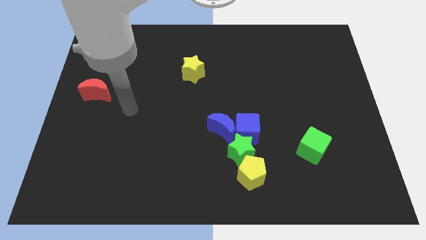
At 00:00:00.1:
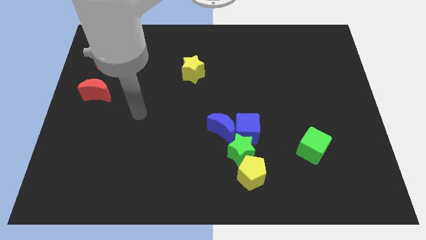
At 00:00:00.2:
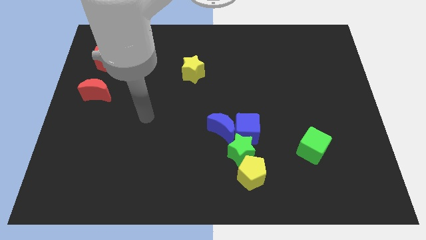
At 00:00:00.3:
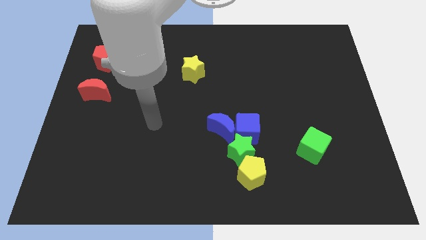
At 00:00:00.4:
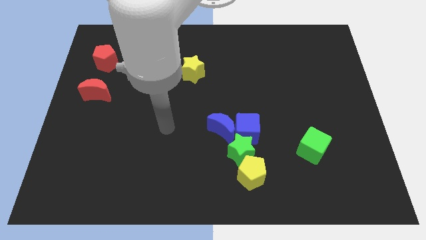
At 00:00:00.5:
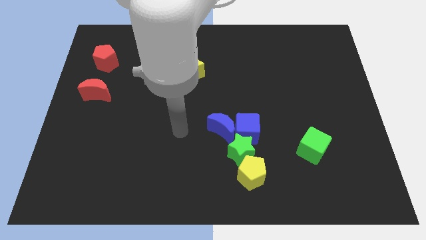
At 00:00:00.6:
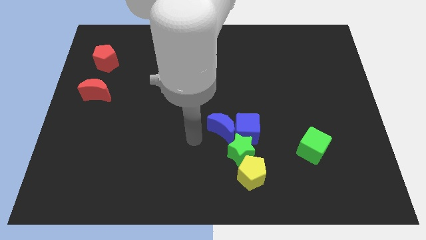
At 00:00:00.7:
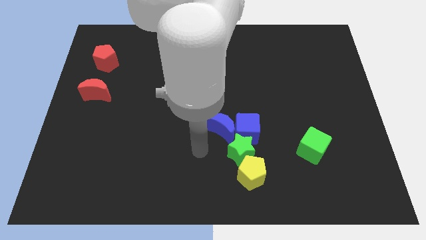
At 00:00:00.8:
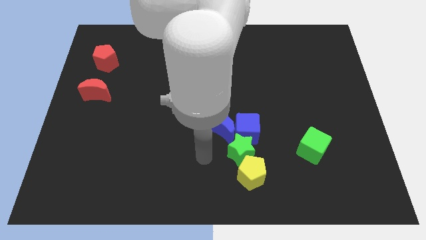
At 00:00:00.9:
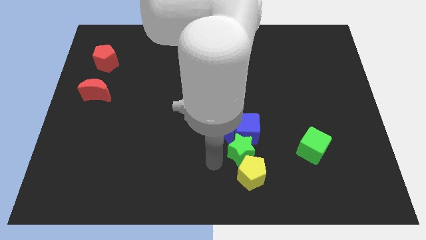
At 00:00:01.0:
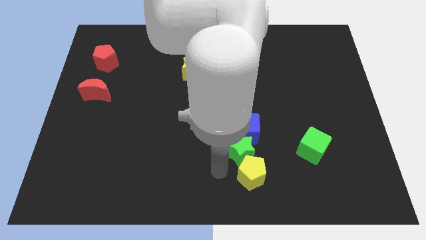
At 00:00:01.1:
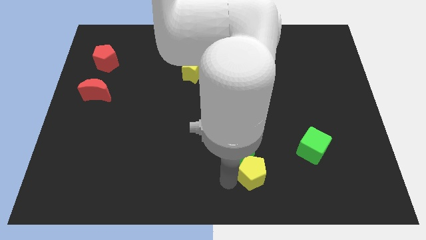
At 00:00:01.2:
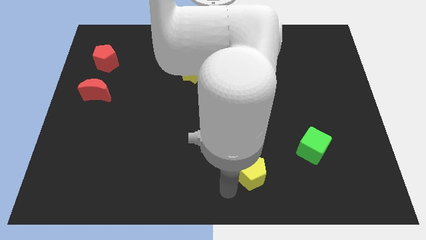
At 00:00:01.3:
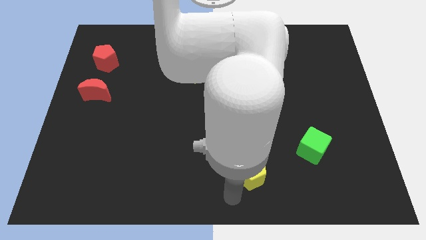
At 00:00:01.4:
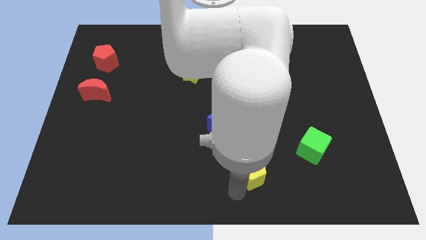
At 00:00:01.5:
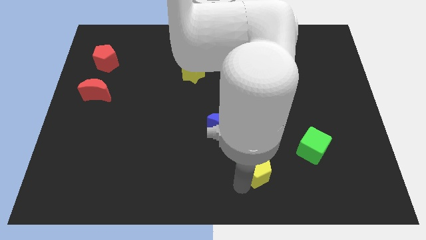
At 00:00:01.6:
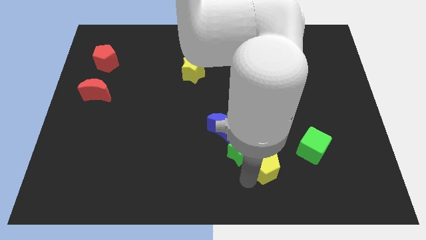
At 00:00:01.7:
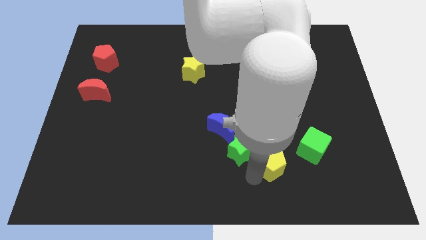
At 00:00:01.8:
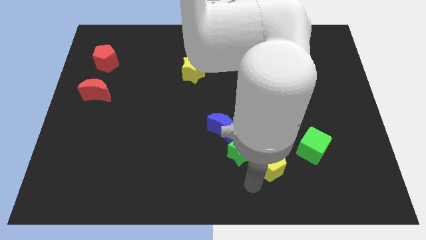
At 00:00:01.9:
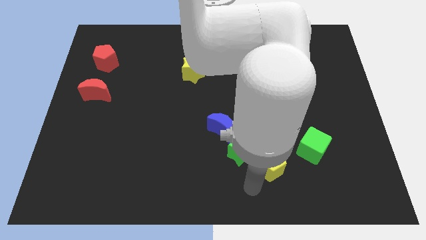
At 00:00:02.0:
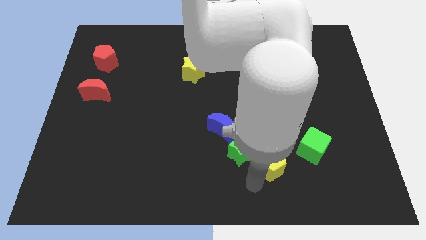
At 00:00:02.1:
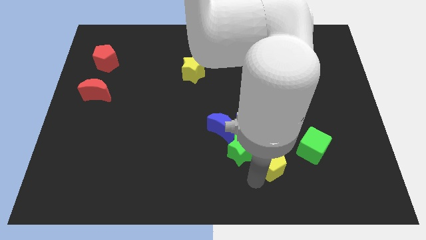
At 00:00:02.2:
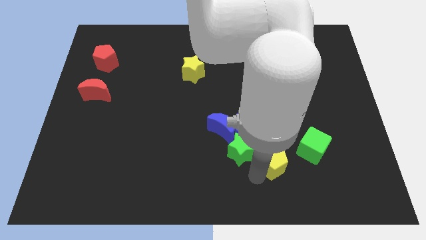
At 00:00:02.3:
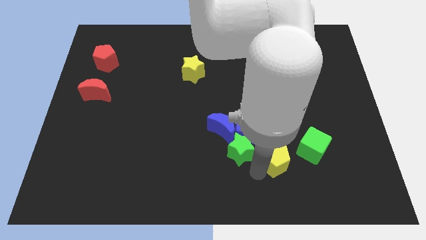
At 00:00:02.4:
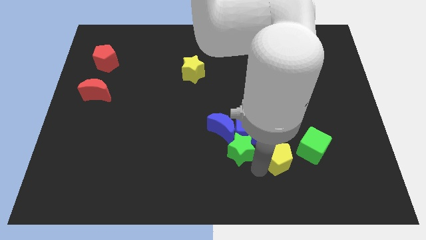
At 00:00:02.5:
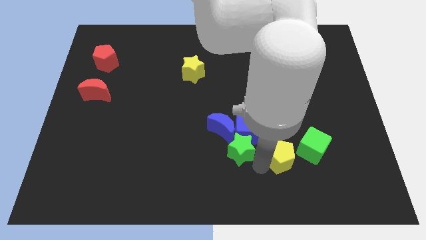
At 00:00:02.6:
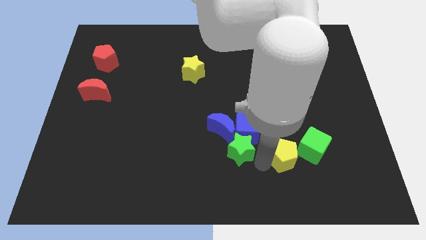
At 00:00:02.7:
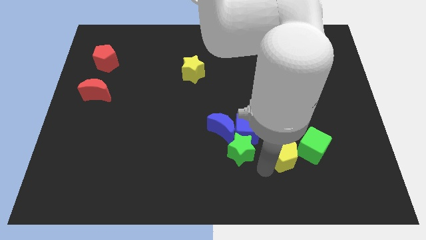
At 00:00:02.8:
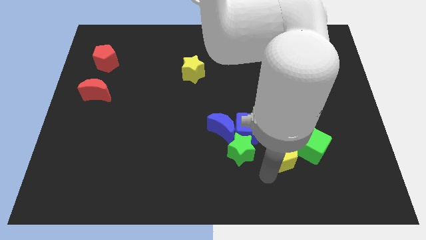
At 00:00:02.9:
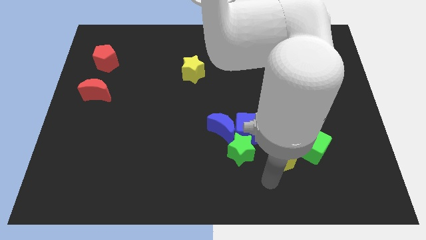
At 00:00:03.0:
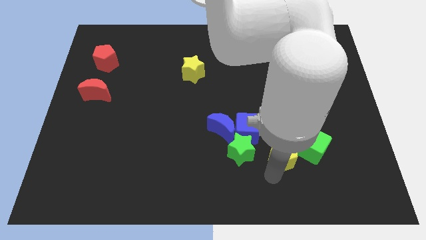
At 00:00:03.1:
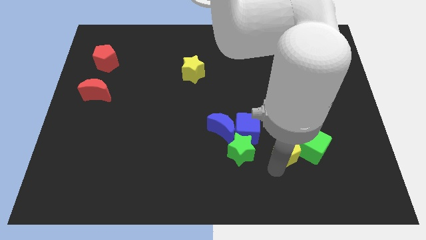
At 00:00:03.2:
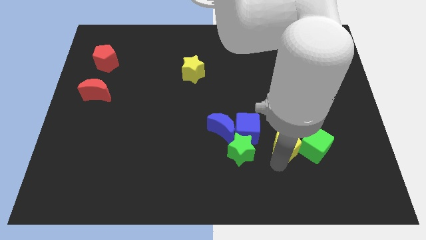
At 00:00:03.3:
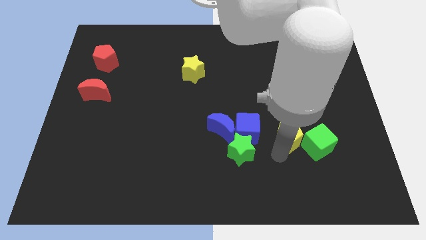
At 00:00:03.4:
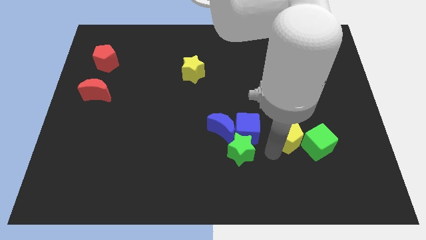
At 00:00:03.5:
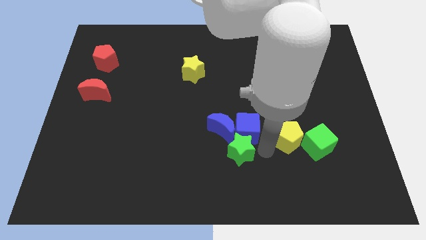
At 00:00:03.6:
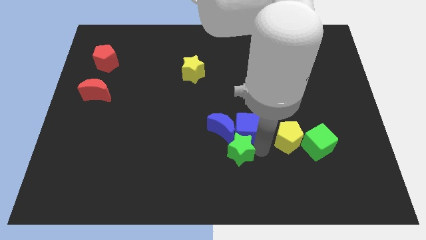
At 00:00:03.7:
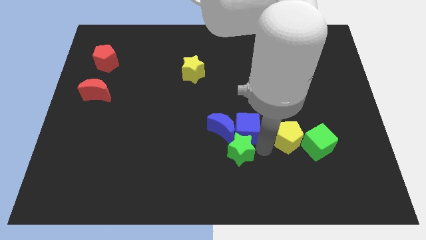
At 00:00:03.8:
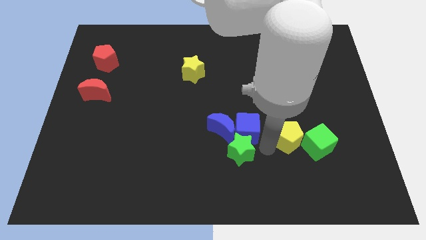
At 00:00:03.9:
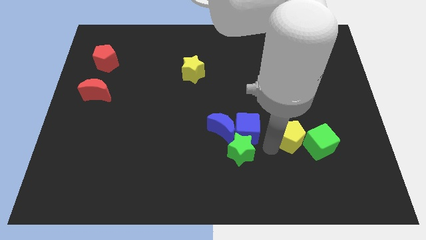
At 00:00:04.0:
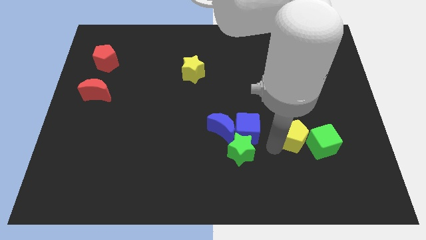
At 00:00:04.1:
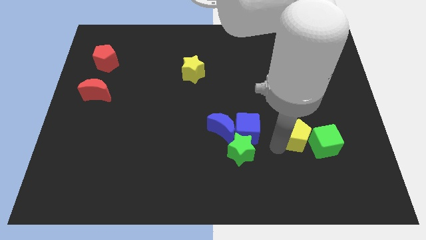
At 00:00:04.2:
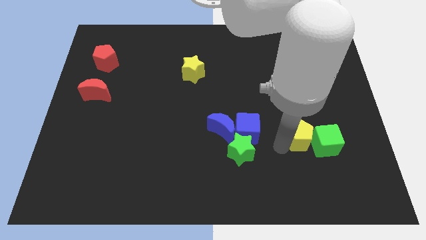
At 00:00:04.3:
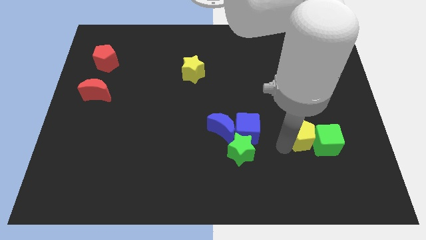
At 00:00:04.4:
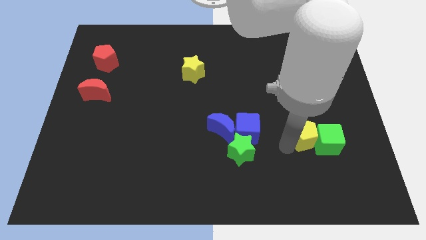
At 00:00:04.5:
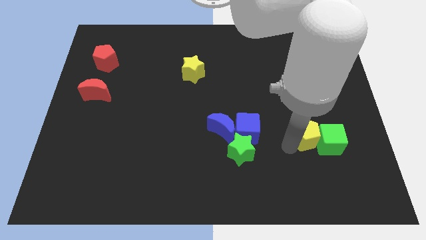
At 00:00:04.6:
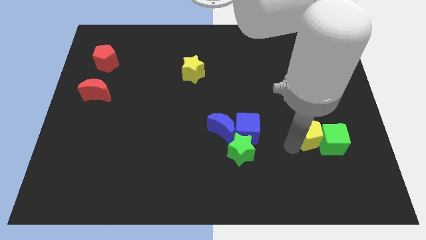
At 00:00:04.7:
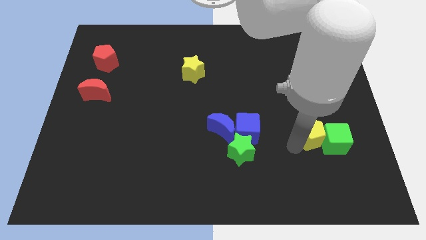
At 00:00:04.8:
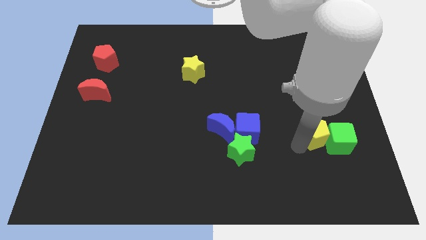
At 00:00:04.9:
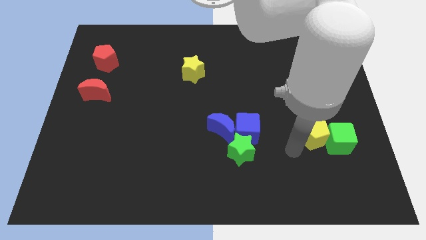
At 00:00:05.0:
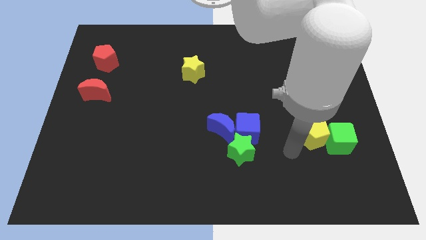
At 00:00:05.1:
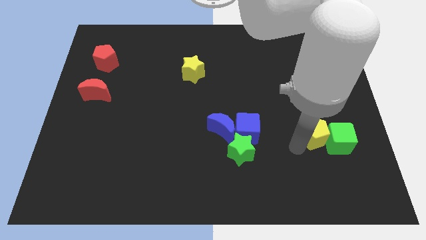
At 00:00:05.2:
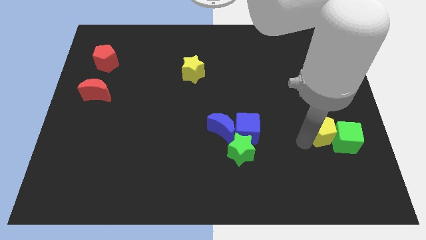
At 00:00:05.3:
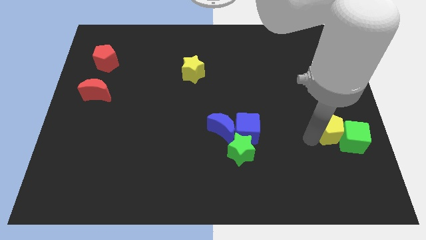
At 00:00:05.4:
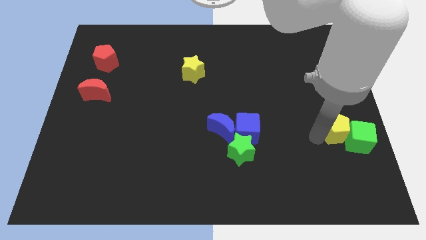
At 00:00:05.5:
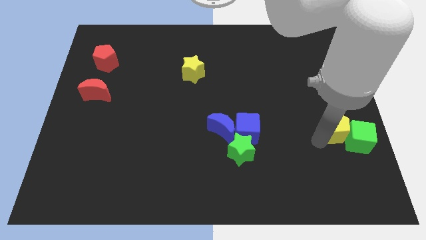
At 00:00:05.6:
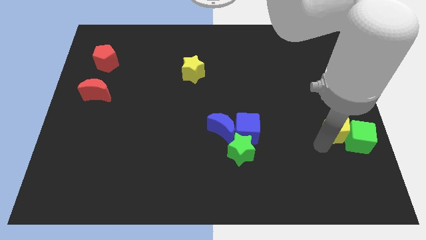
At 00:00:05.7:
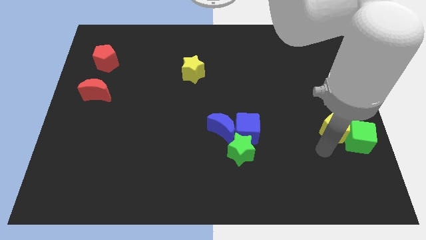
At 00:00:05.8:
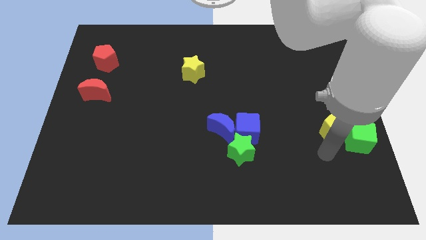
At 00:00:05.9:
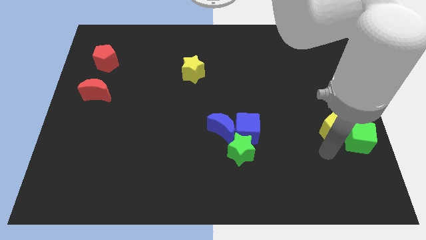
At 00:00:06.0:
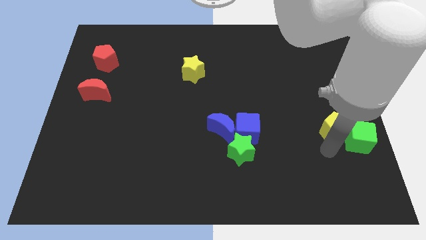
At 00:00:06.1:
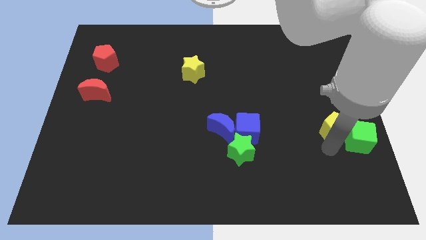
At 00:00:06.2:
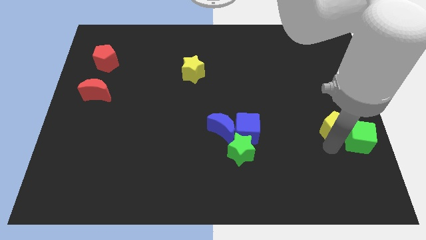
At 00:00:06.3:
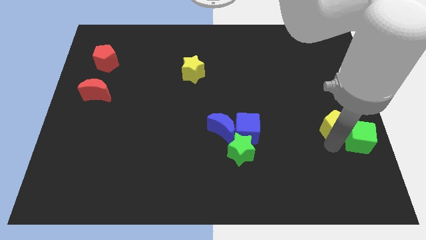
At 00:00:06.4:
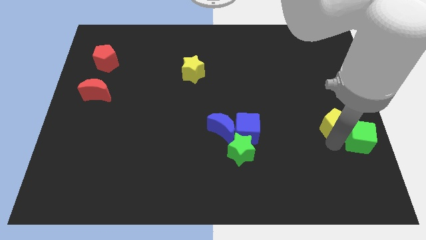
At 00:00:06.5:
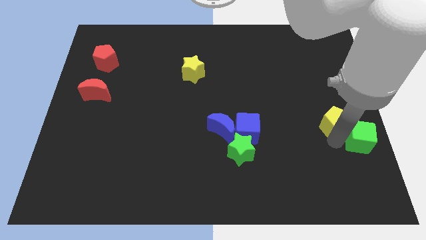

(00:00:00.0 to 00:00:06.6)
slide the yellow pentagon to the center right

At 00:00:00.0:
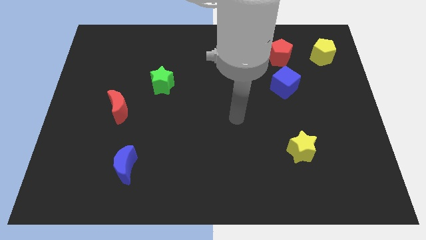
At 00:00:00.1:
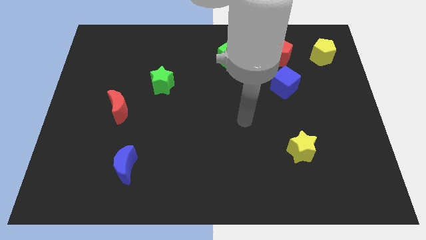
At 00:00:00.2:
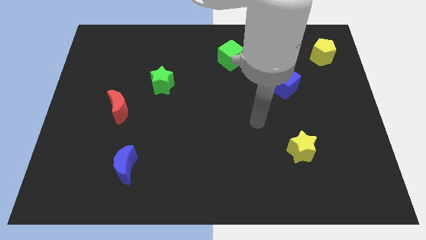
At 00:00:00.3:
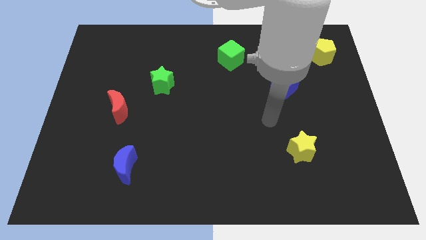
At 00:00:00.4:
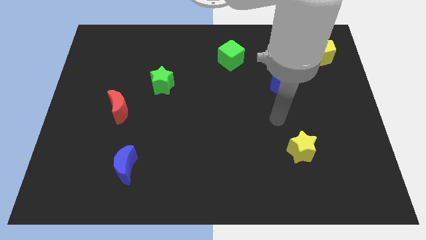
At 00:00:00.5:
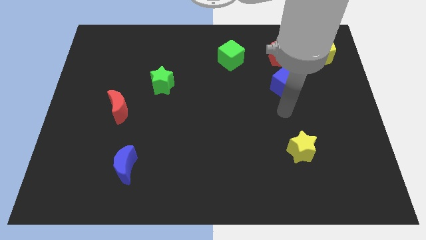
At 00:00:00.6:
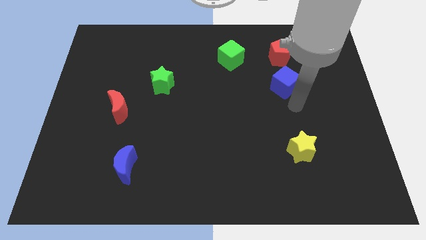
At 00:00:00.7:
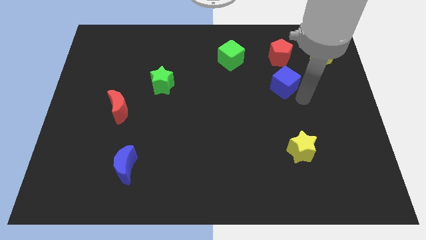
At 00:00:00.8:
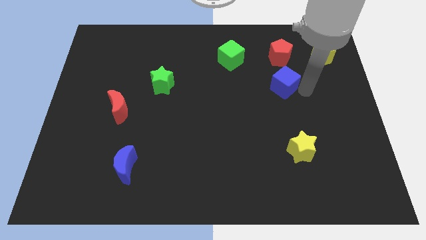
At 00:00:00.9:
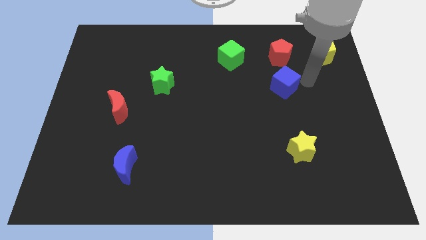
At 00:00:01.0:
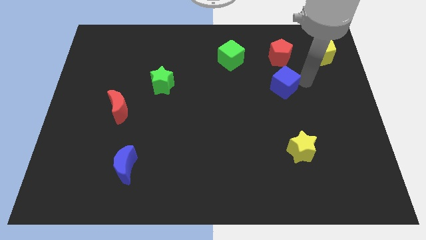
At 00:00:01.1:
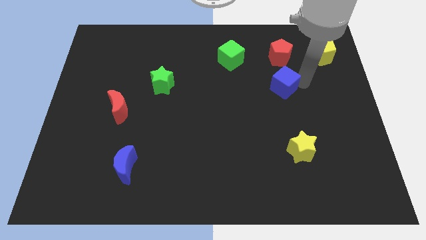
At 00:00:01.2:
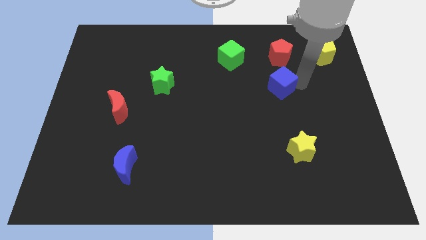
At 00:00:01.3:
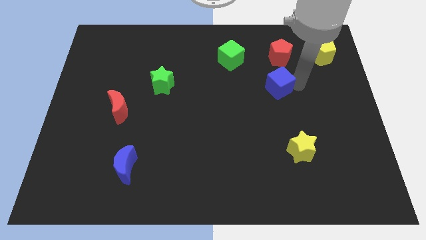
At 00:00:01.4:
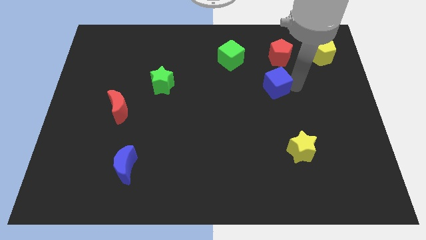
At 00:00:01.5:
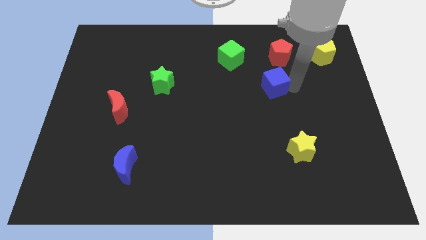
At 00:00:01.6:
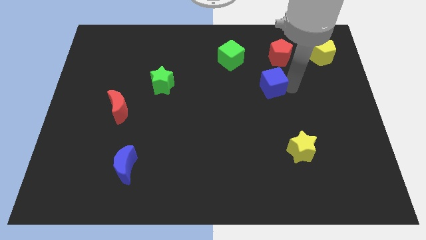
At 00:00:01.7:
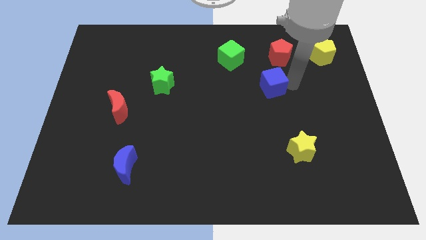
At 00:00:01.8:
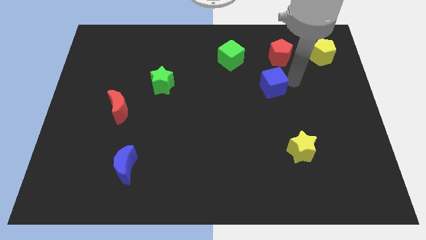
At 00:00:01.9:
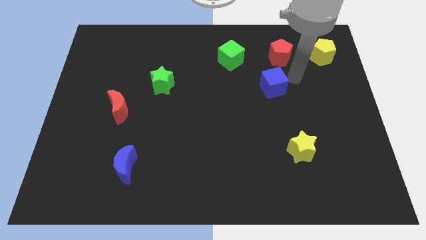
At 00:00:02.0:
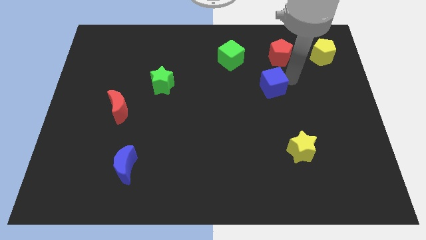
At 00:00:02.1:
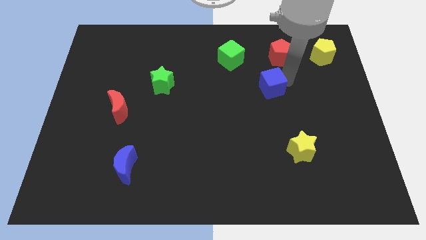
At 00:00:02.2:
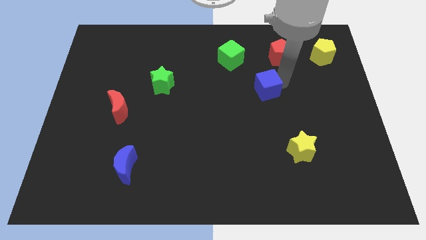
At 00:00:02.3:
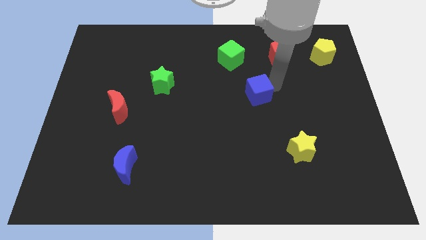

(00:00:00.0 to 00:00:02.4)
push the blue cube to the middle of the board
